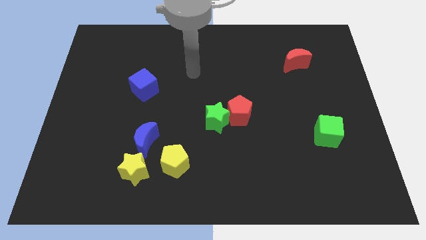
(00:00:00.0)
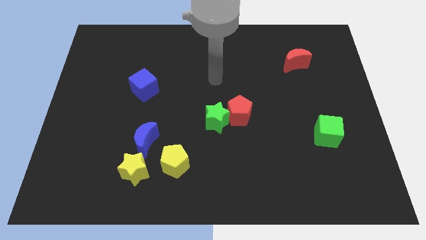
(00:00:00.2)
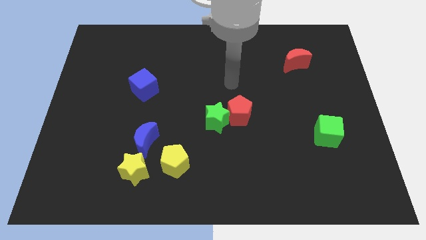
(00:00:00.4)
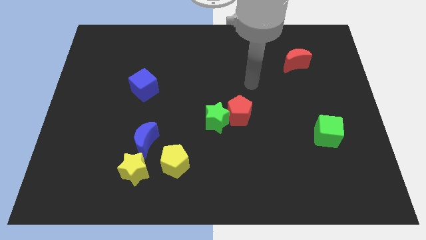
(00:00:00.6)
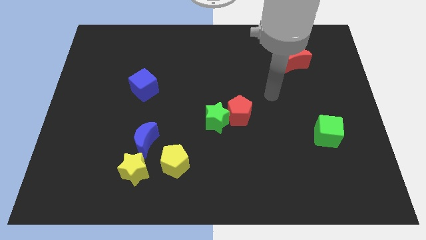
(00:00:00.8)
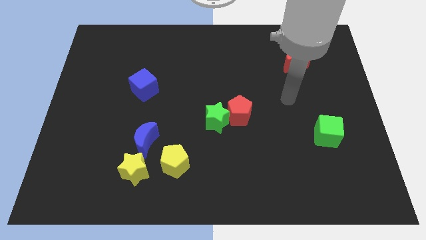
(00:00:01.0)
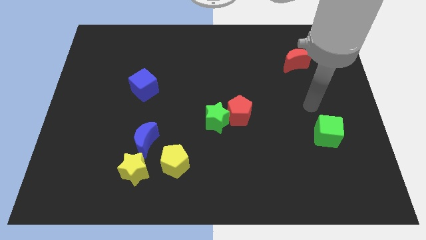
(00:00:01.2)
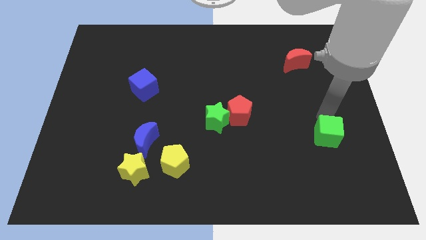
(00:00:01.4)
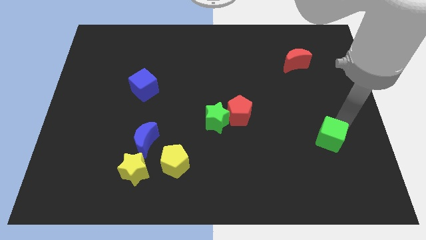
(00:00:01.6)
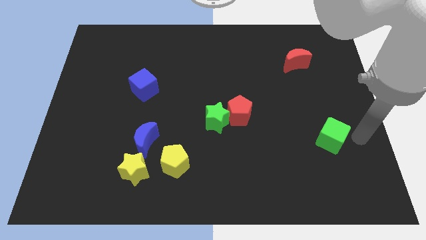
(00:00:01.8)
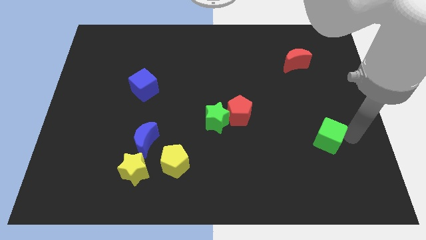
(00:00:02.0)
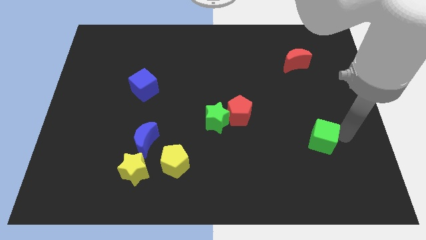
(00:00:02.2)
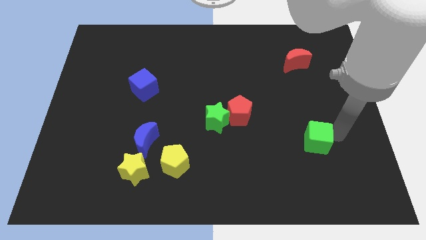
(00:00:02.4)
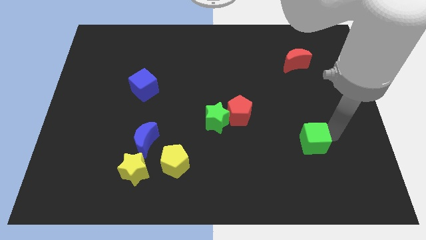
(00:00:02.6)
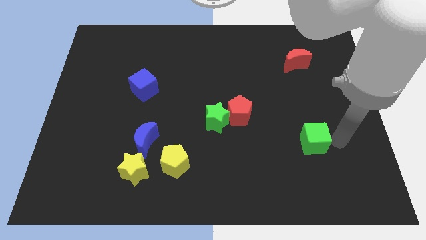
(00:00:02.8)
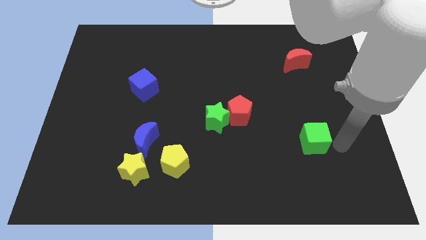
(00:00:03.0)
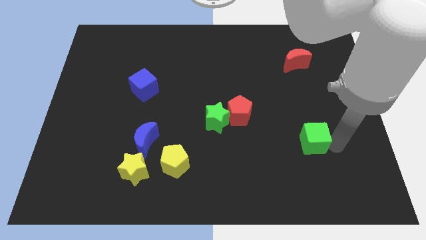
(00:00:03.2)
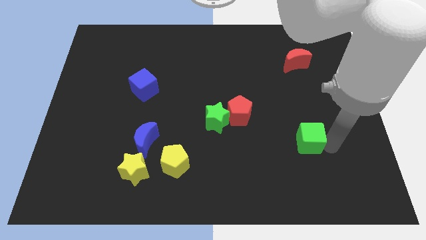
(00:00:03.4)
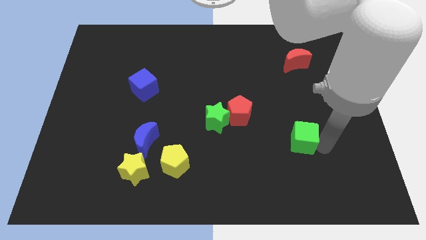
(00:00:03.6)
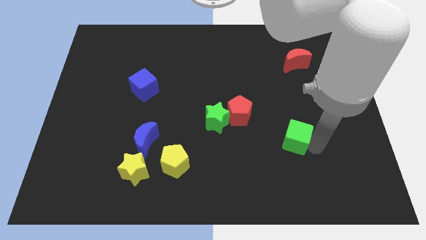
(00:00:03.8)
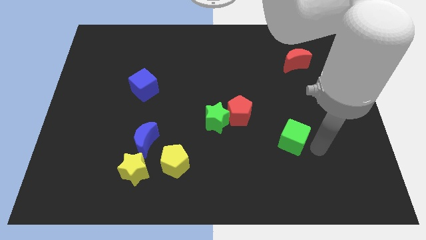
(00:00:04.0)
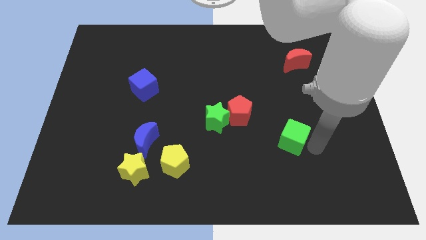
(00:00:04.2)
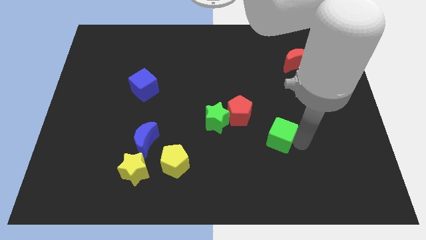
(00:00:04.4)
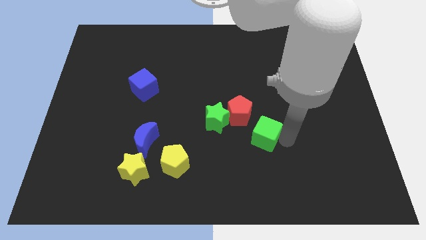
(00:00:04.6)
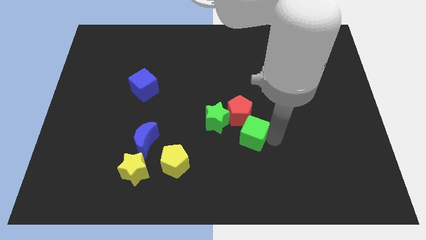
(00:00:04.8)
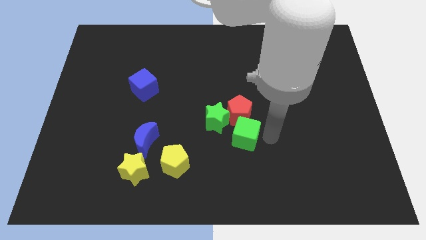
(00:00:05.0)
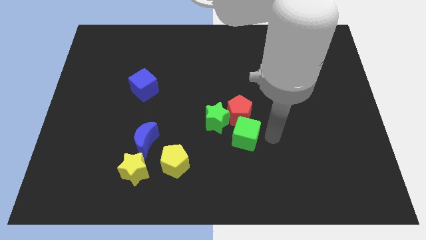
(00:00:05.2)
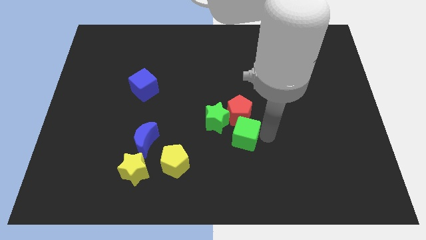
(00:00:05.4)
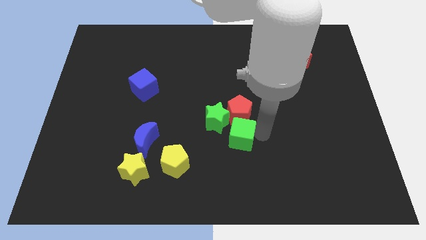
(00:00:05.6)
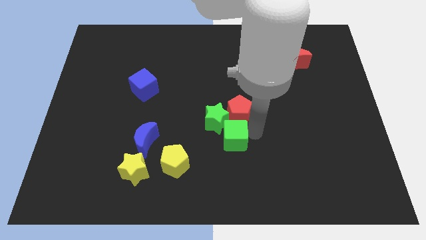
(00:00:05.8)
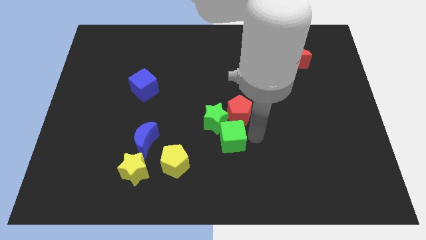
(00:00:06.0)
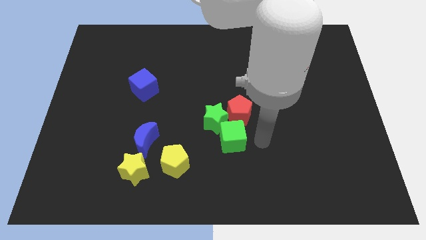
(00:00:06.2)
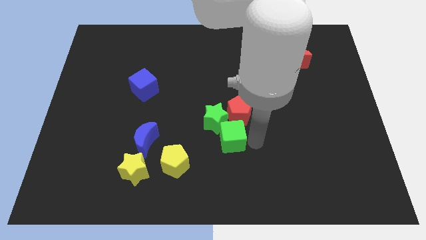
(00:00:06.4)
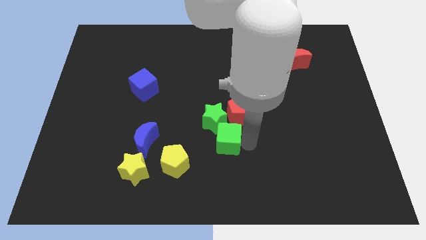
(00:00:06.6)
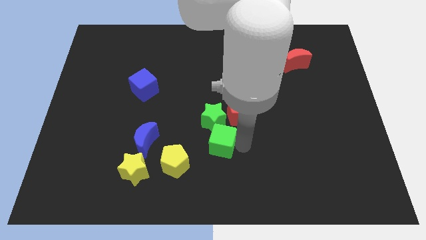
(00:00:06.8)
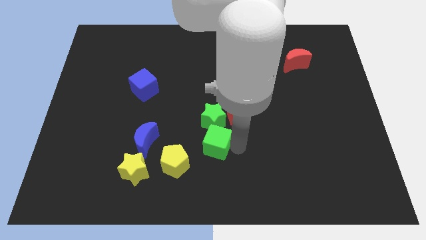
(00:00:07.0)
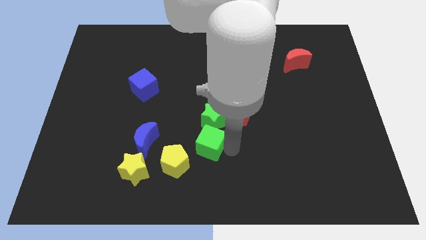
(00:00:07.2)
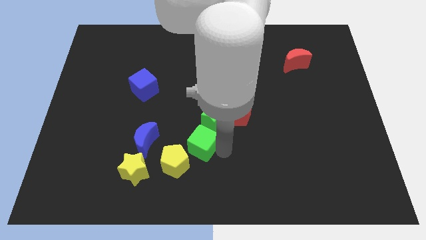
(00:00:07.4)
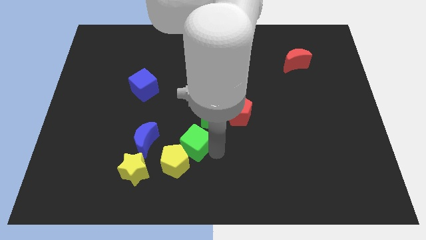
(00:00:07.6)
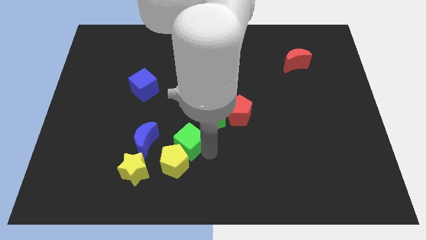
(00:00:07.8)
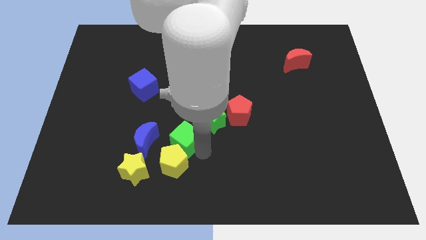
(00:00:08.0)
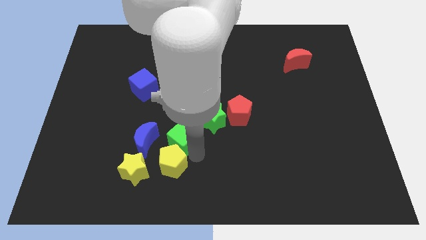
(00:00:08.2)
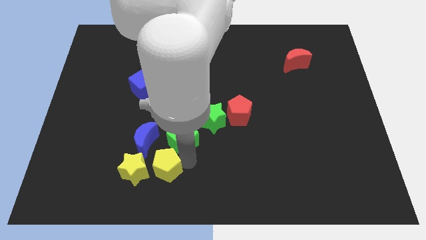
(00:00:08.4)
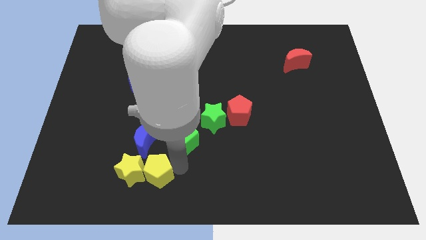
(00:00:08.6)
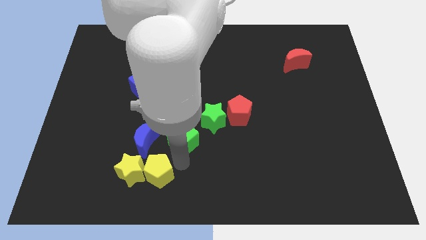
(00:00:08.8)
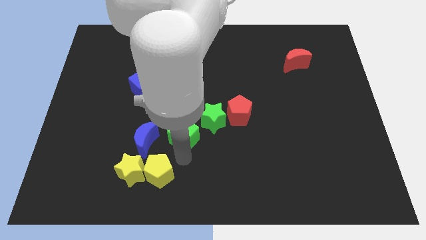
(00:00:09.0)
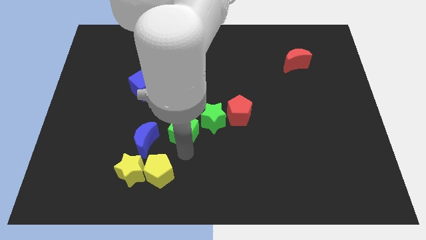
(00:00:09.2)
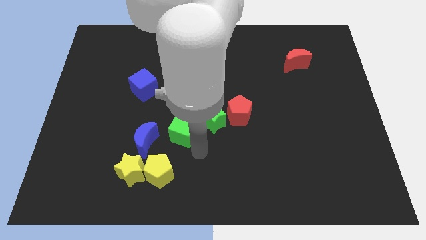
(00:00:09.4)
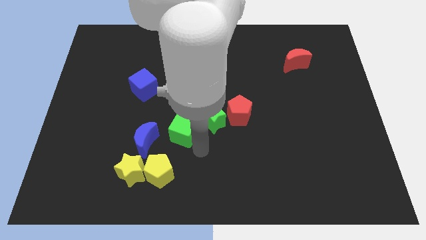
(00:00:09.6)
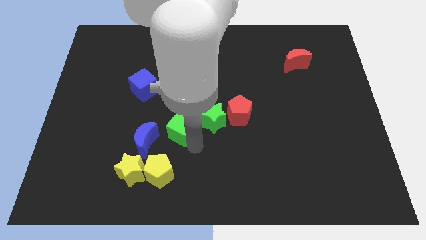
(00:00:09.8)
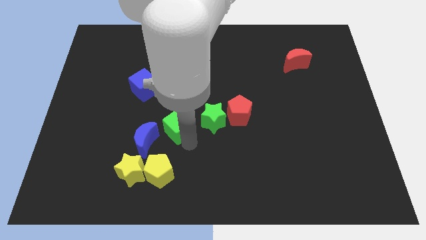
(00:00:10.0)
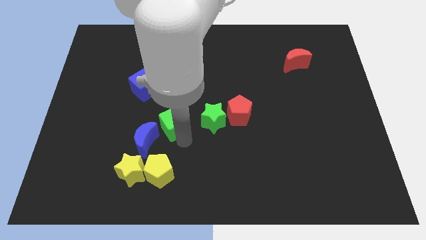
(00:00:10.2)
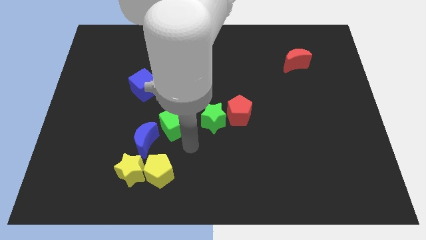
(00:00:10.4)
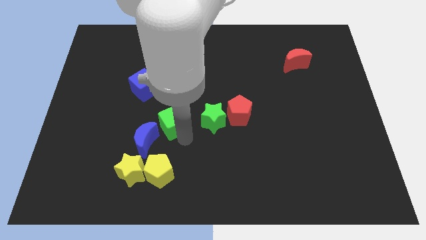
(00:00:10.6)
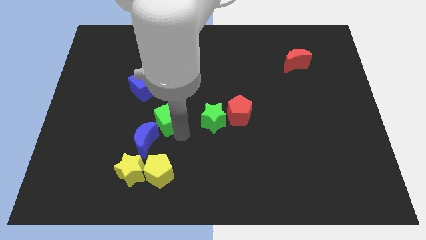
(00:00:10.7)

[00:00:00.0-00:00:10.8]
put the green cube to the top of the blue moon

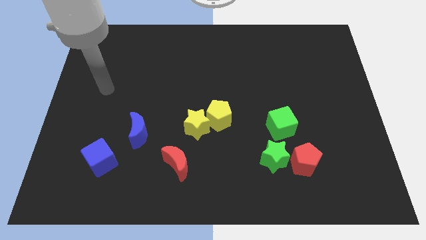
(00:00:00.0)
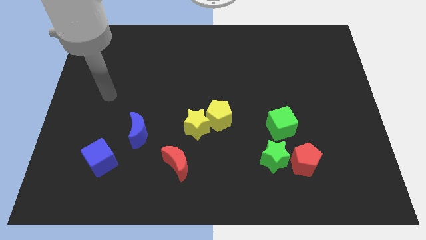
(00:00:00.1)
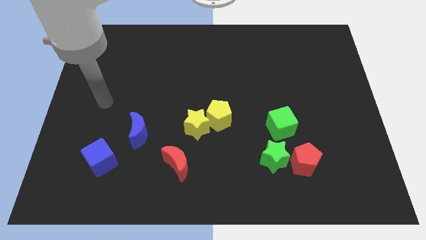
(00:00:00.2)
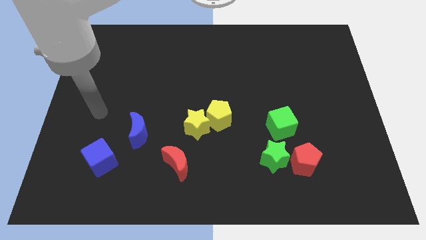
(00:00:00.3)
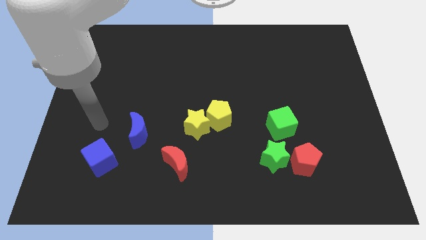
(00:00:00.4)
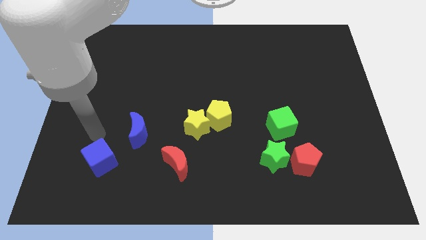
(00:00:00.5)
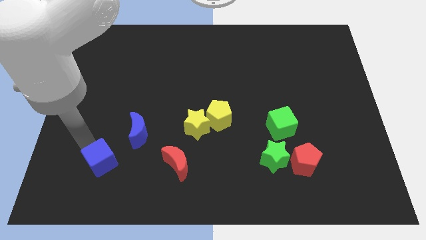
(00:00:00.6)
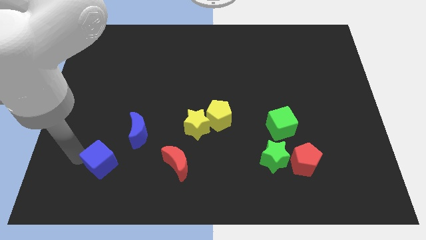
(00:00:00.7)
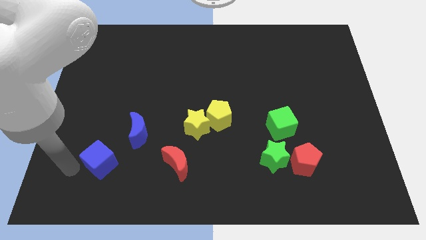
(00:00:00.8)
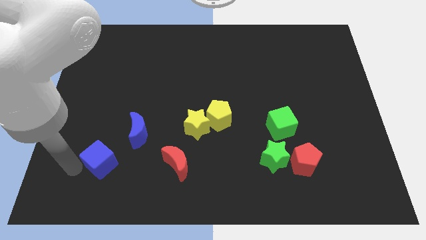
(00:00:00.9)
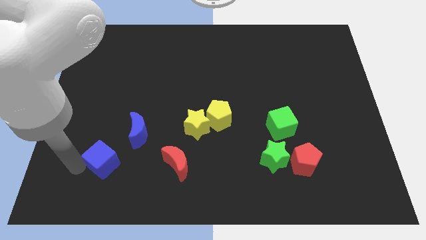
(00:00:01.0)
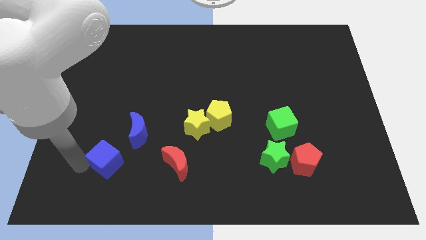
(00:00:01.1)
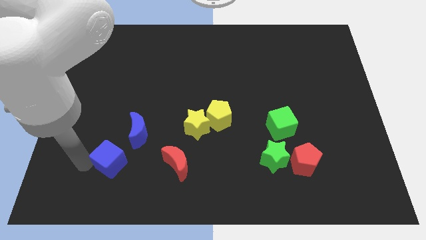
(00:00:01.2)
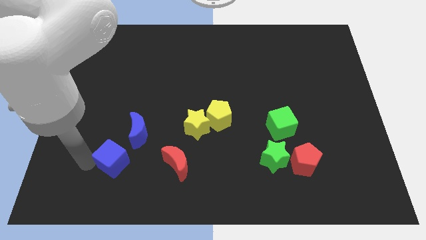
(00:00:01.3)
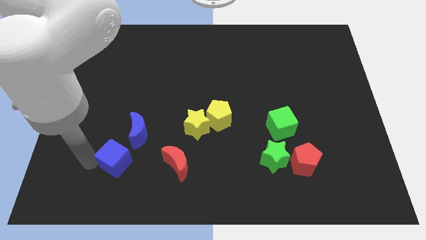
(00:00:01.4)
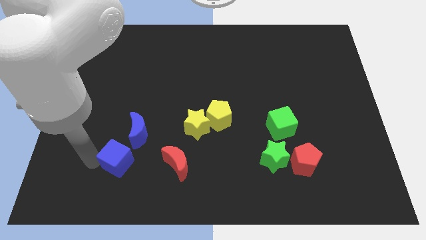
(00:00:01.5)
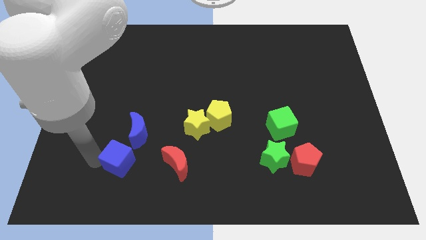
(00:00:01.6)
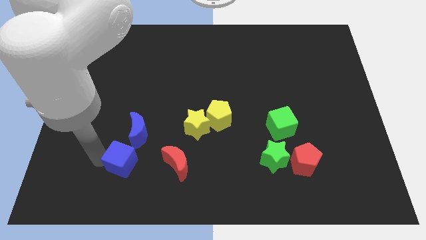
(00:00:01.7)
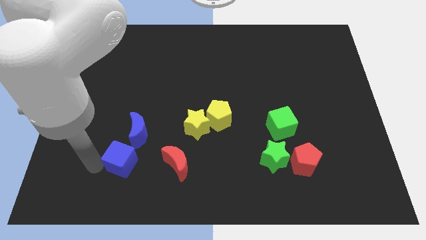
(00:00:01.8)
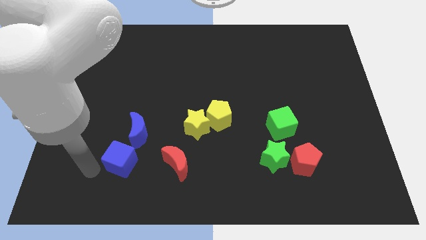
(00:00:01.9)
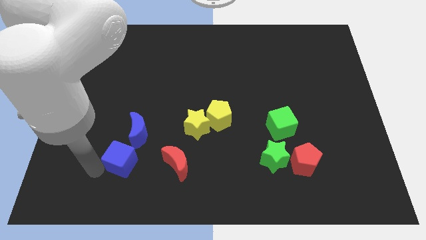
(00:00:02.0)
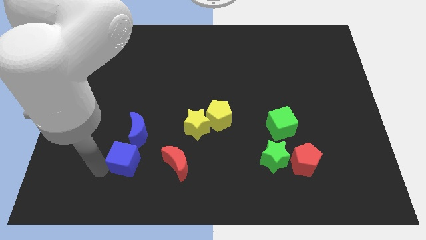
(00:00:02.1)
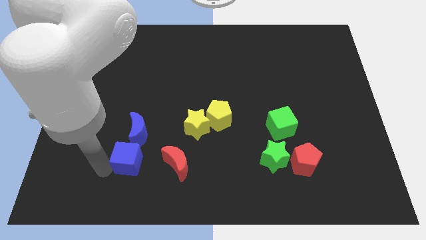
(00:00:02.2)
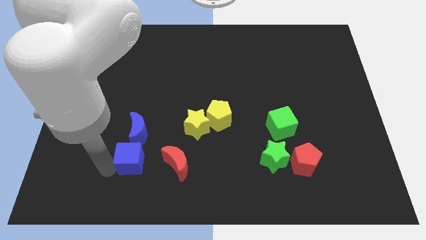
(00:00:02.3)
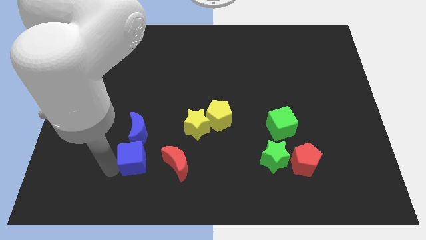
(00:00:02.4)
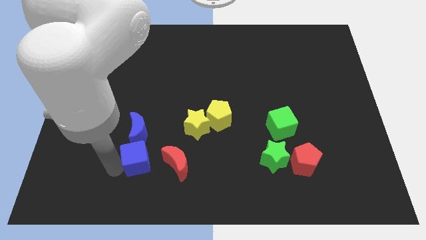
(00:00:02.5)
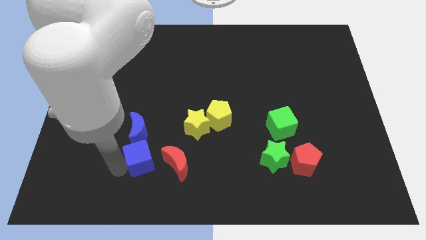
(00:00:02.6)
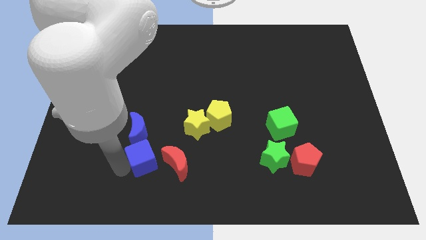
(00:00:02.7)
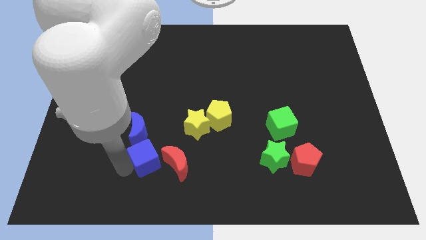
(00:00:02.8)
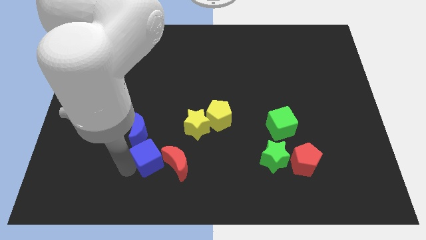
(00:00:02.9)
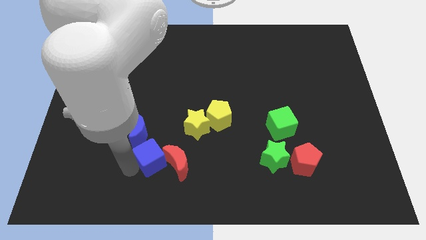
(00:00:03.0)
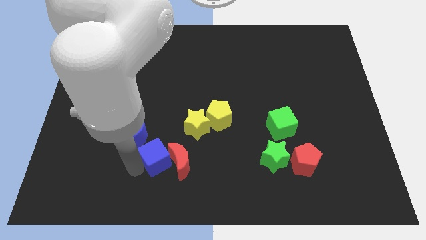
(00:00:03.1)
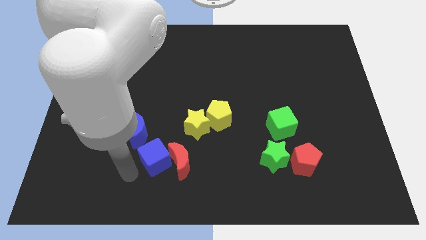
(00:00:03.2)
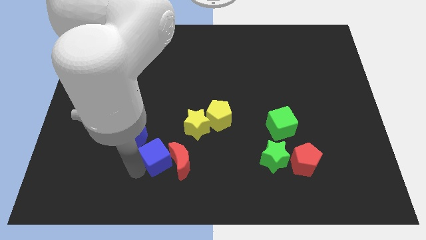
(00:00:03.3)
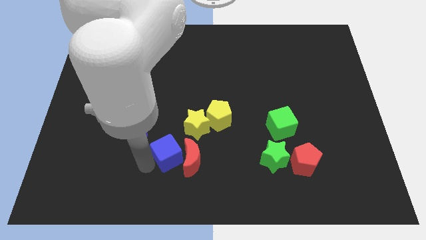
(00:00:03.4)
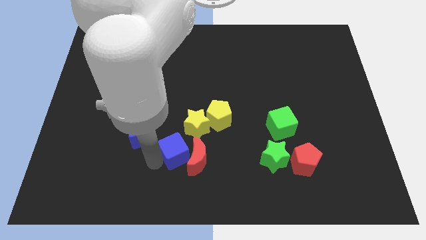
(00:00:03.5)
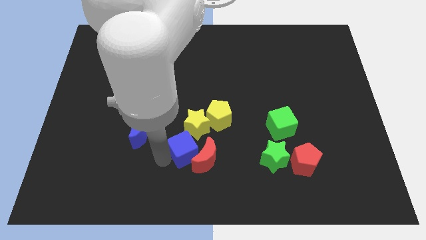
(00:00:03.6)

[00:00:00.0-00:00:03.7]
push the blue cube to the bottom left of the yellow pentagon
